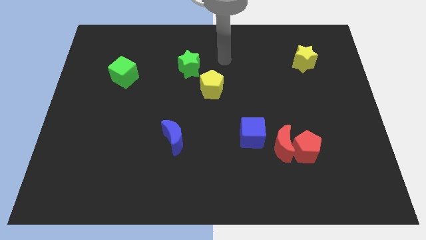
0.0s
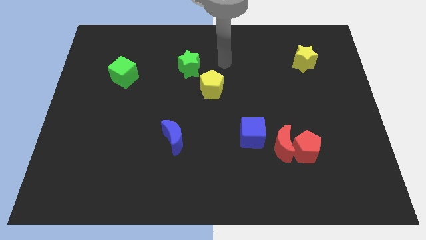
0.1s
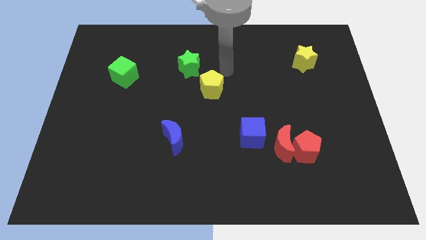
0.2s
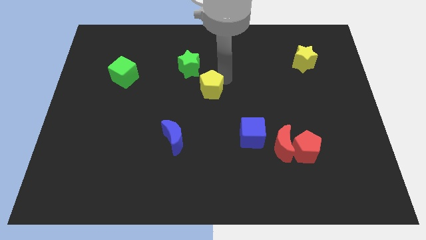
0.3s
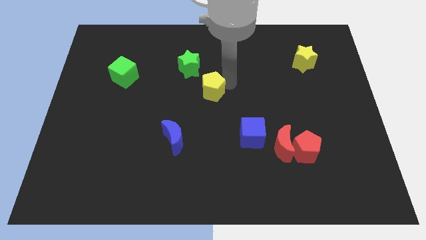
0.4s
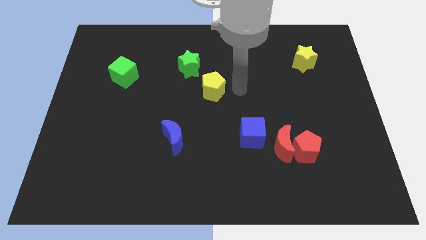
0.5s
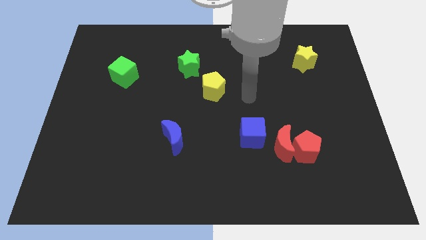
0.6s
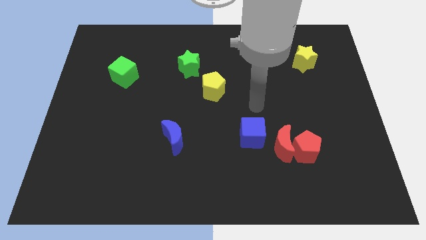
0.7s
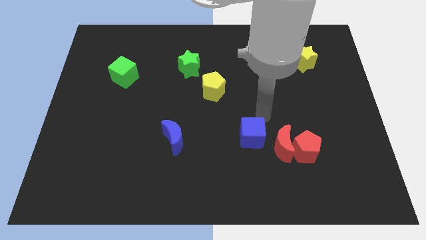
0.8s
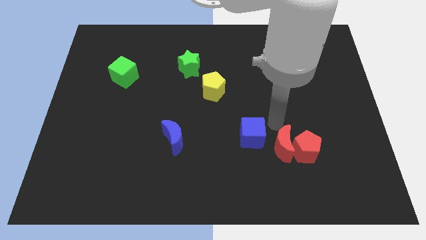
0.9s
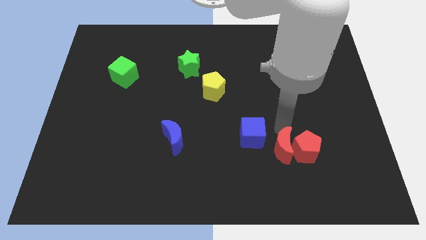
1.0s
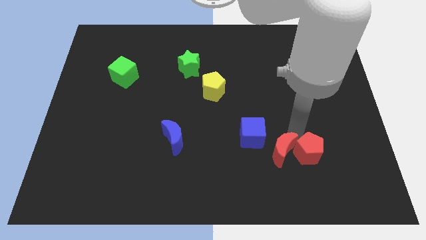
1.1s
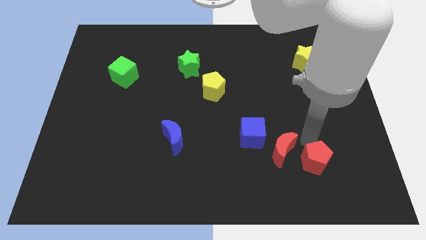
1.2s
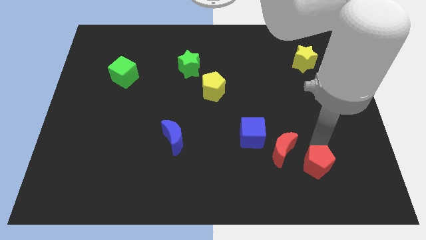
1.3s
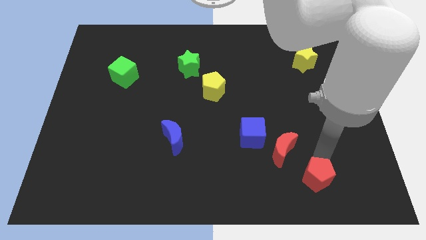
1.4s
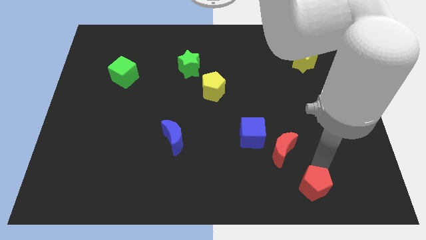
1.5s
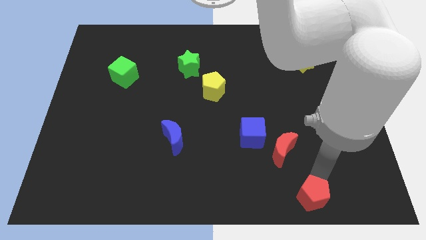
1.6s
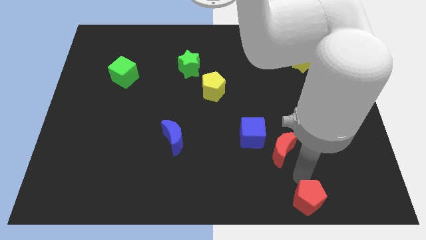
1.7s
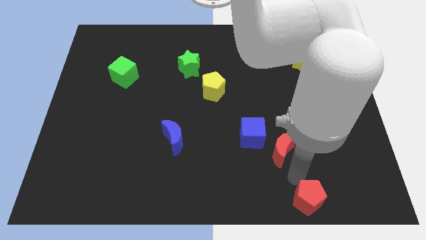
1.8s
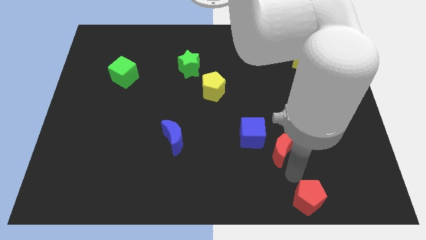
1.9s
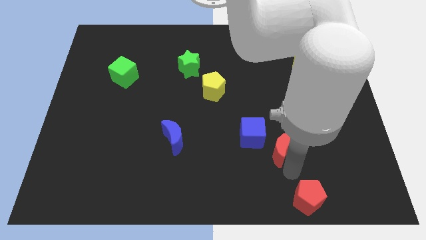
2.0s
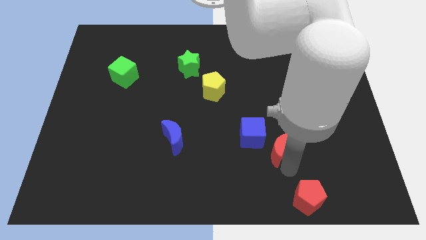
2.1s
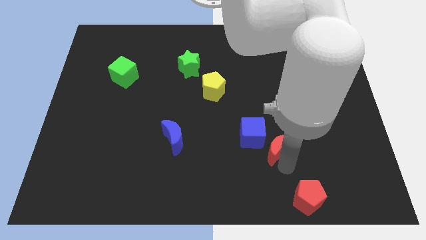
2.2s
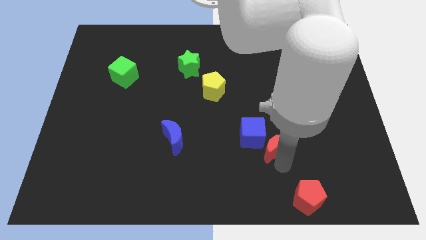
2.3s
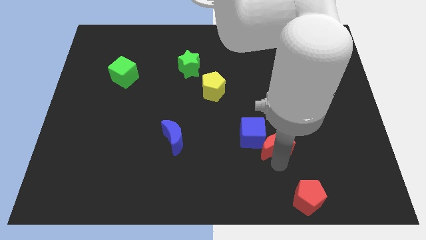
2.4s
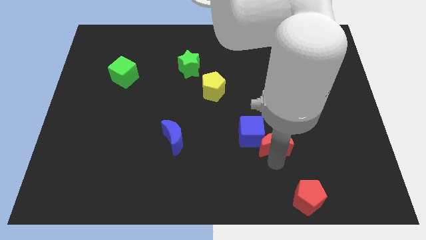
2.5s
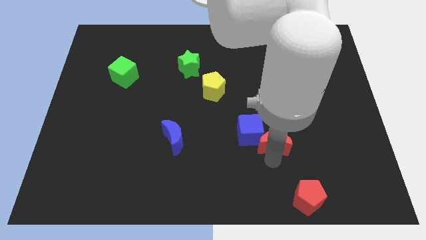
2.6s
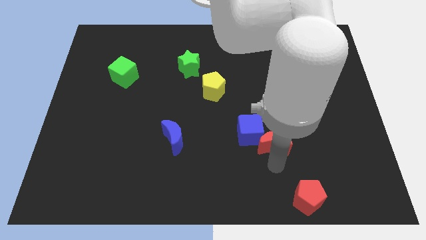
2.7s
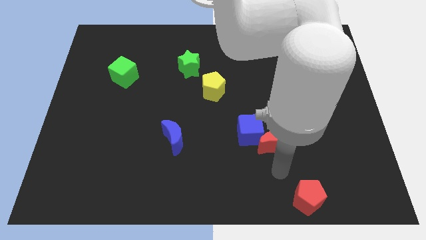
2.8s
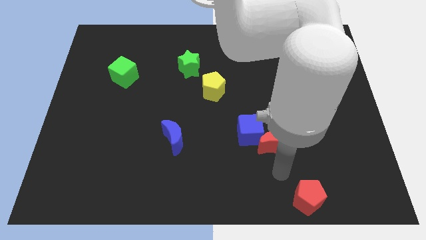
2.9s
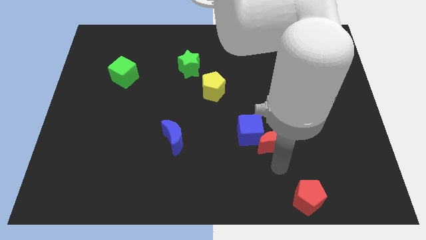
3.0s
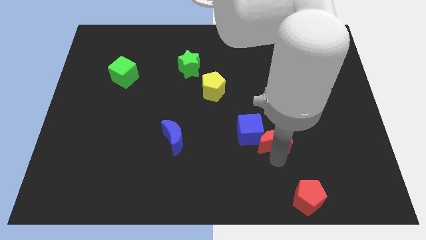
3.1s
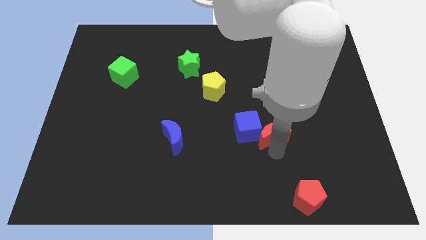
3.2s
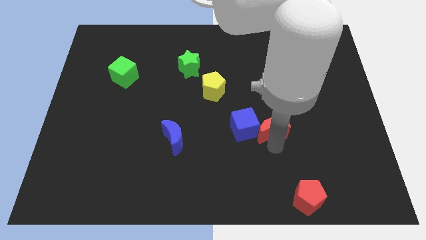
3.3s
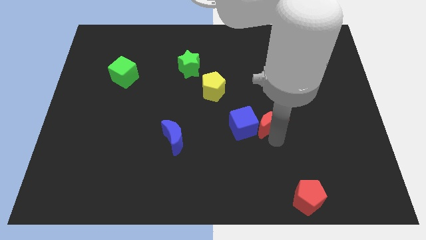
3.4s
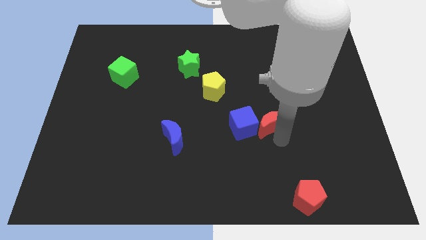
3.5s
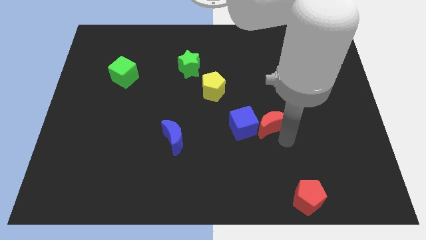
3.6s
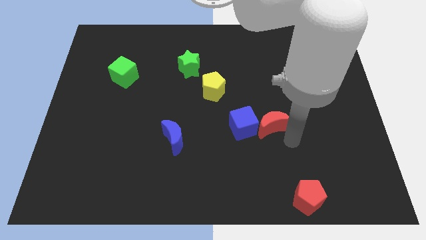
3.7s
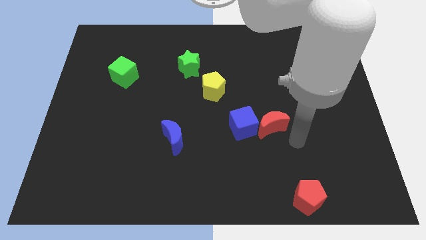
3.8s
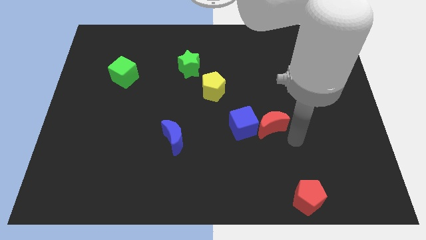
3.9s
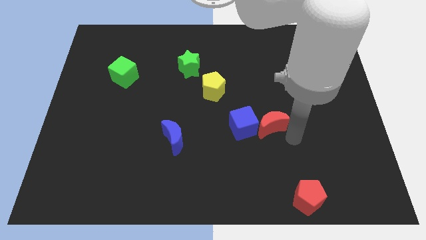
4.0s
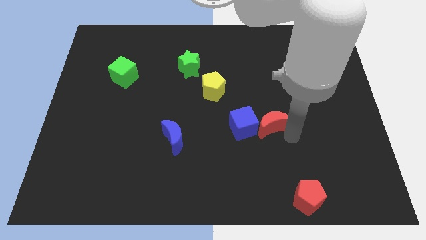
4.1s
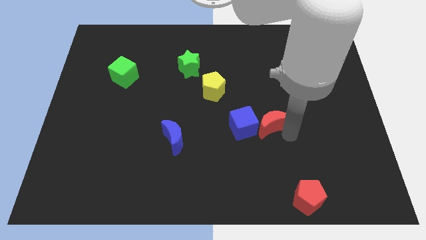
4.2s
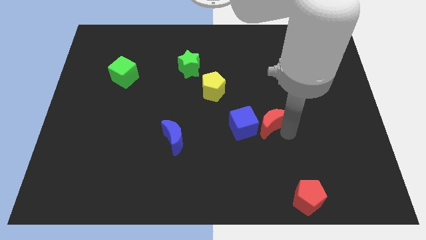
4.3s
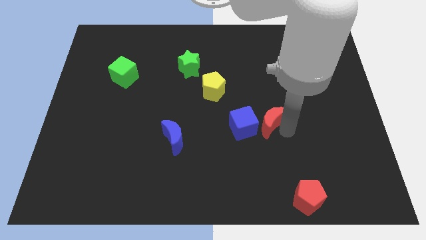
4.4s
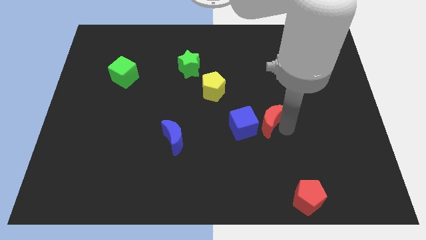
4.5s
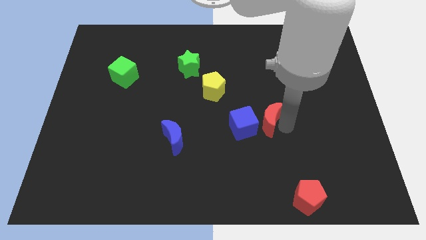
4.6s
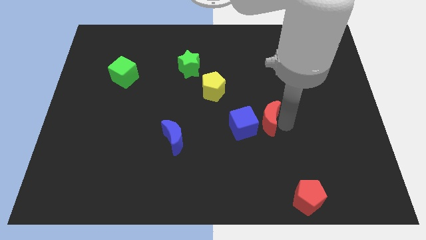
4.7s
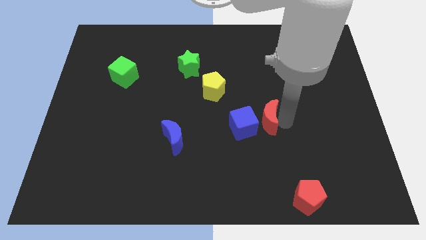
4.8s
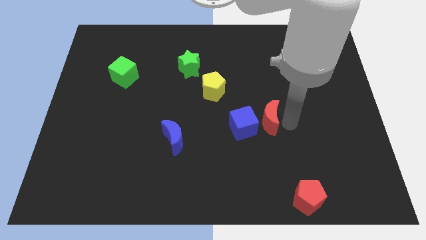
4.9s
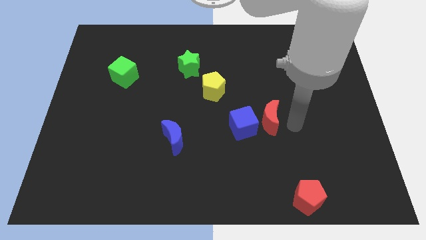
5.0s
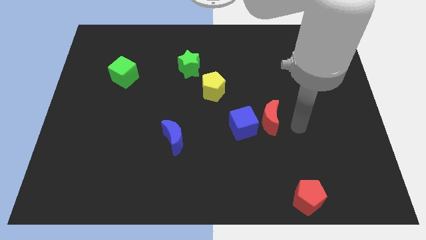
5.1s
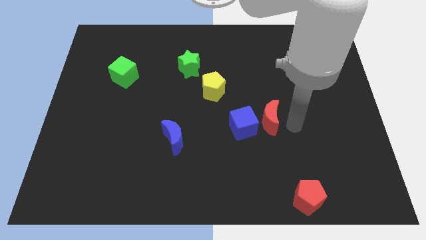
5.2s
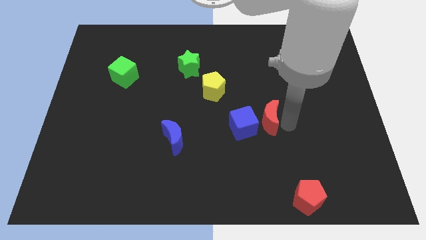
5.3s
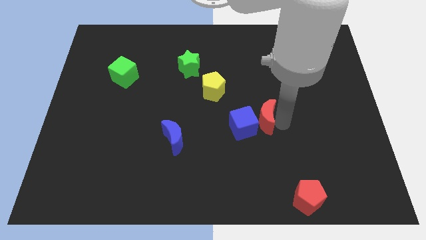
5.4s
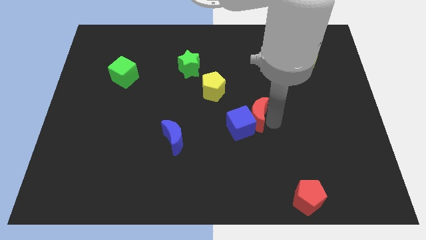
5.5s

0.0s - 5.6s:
slide the red moon to the center of the board

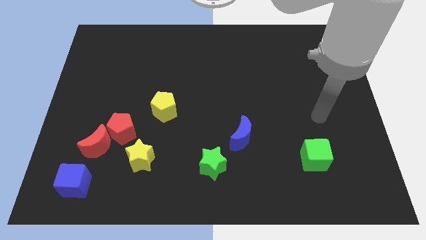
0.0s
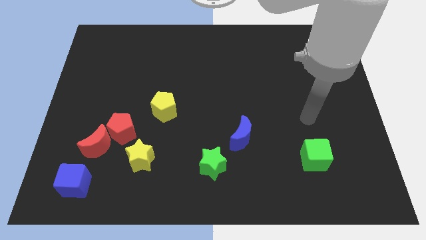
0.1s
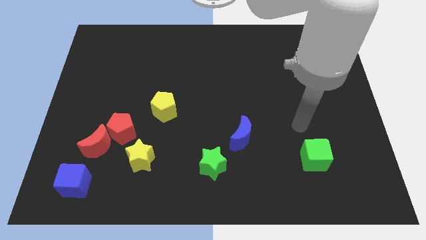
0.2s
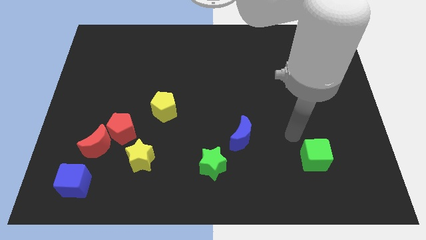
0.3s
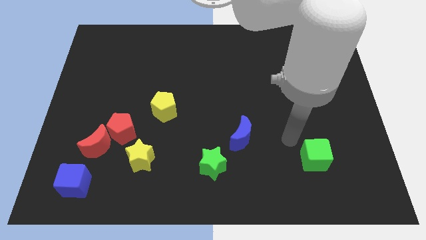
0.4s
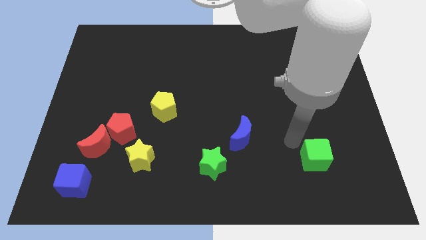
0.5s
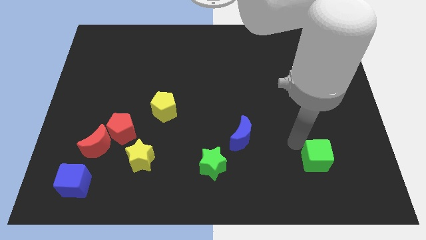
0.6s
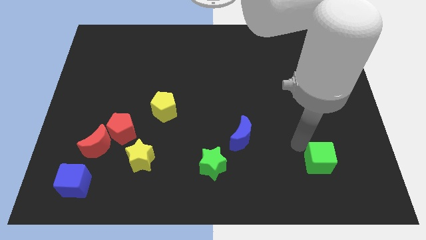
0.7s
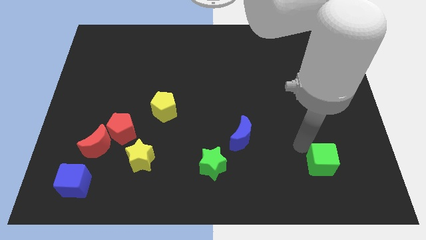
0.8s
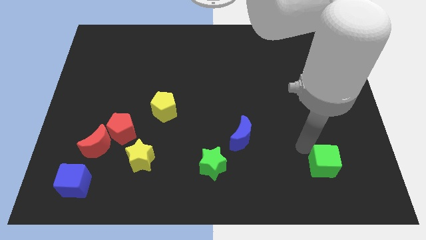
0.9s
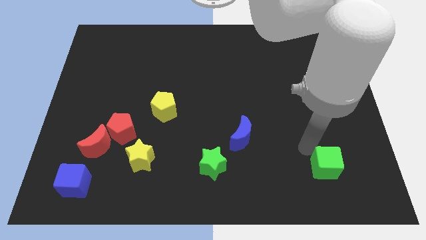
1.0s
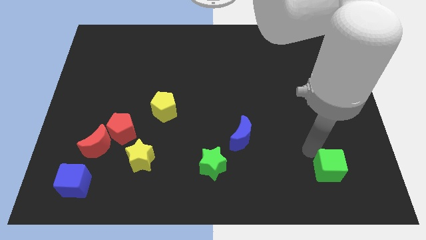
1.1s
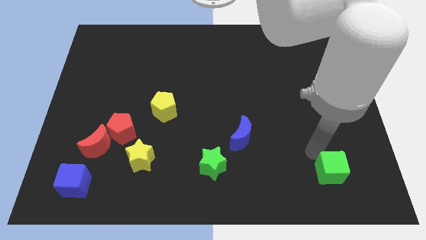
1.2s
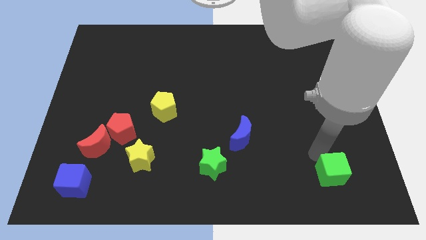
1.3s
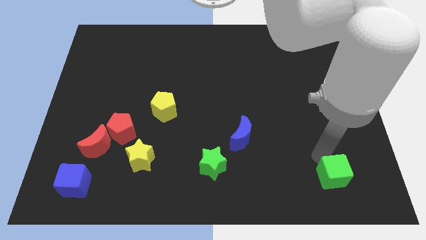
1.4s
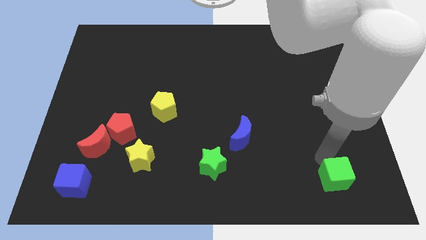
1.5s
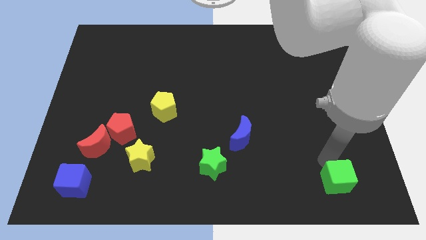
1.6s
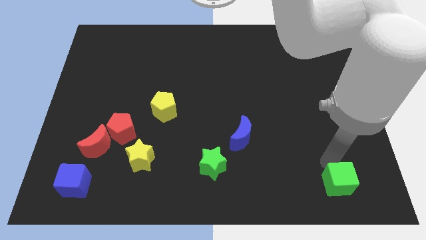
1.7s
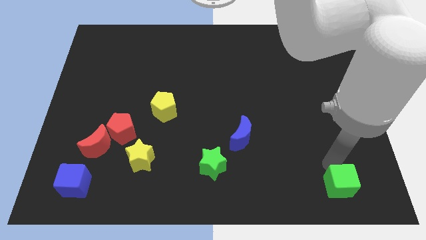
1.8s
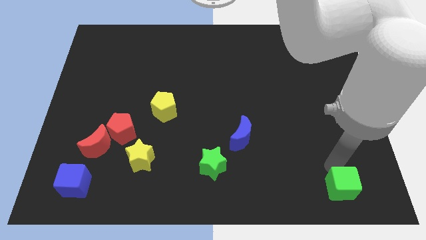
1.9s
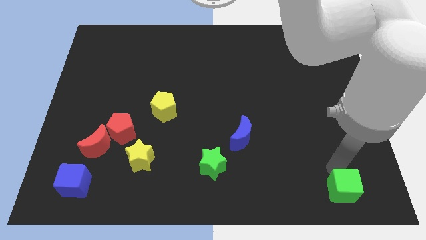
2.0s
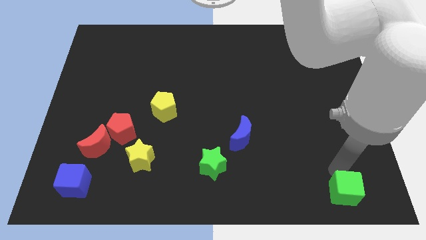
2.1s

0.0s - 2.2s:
move the green cube to the bottom right
